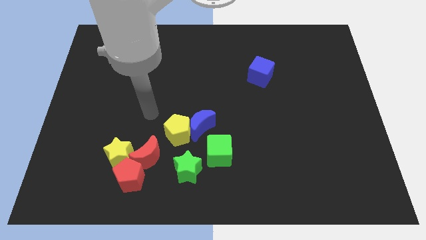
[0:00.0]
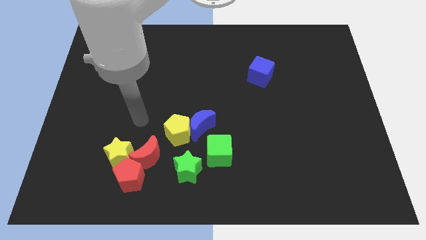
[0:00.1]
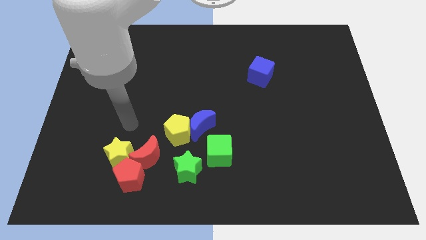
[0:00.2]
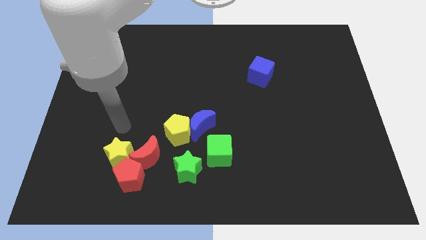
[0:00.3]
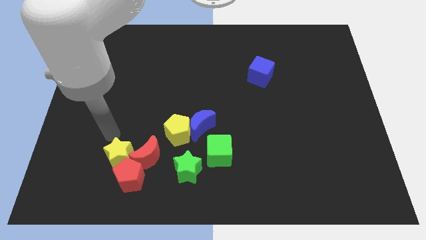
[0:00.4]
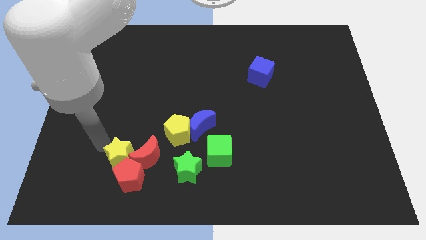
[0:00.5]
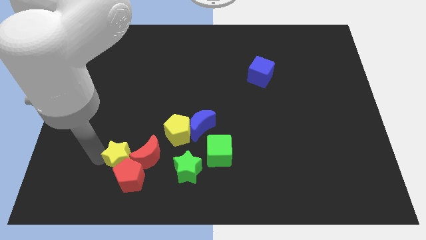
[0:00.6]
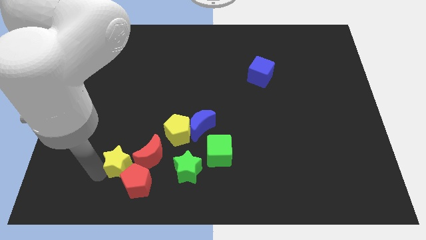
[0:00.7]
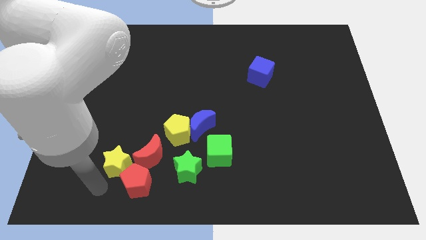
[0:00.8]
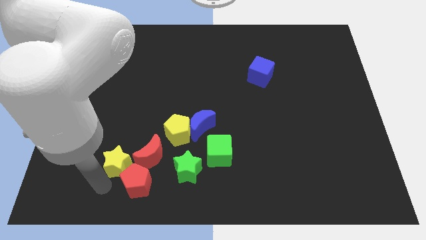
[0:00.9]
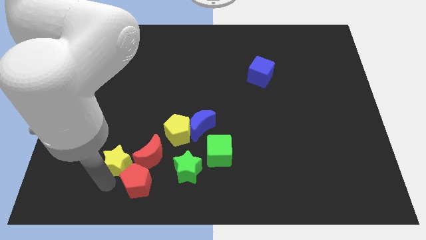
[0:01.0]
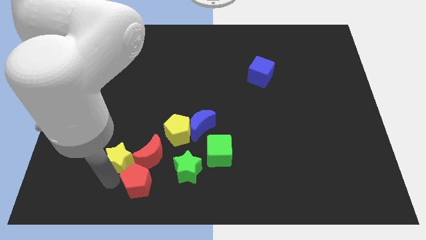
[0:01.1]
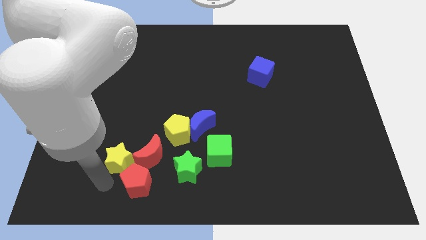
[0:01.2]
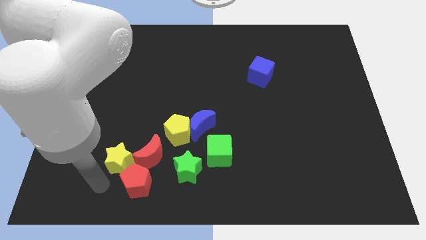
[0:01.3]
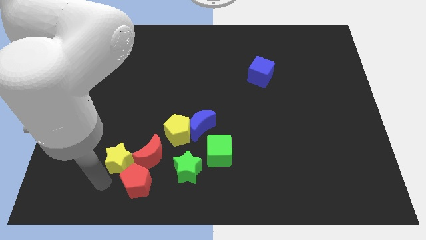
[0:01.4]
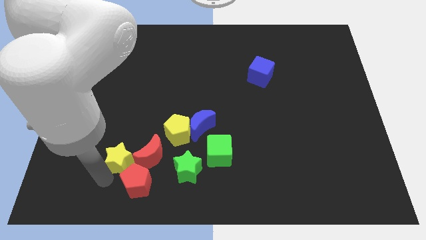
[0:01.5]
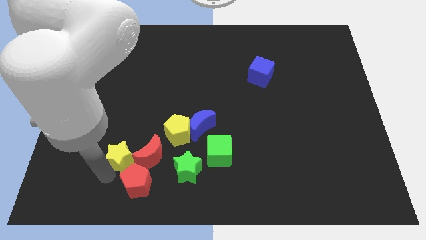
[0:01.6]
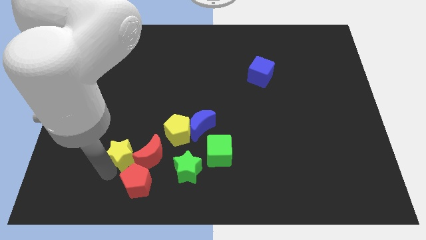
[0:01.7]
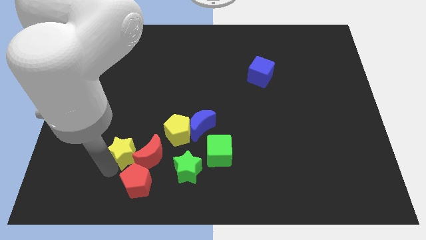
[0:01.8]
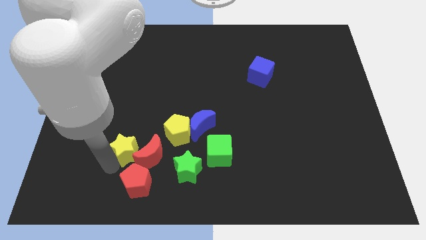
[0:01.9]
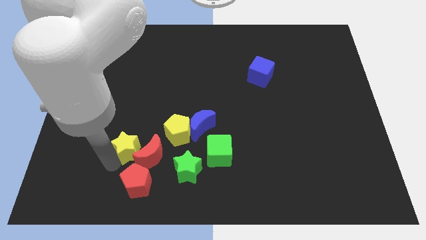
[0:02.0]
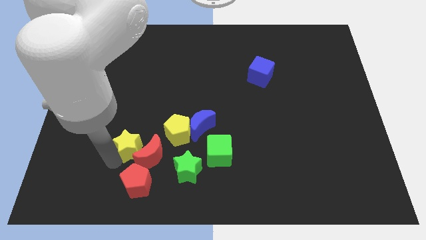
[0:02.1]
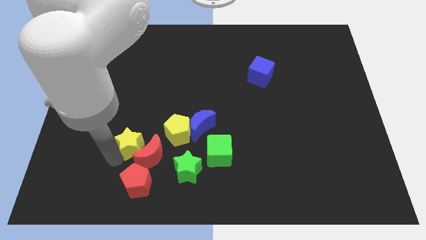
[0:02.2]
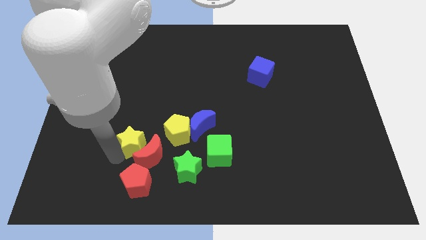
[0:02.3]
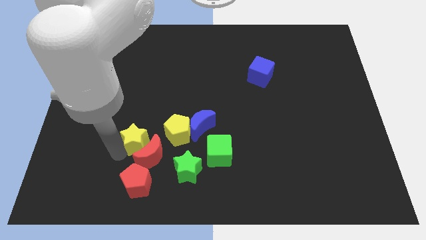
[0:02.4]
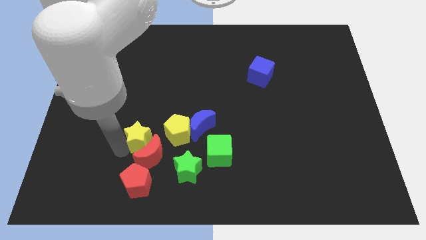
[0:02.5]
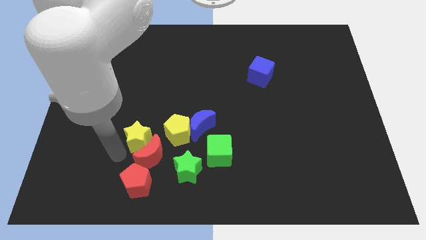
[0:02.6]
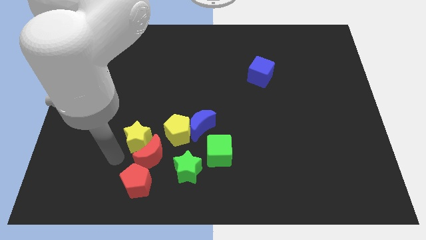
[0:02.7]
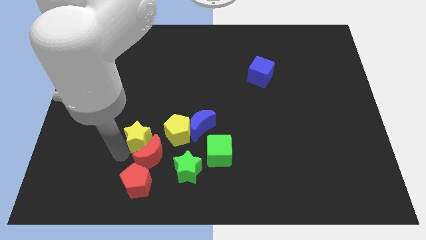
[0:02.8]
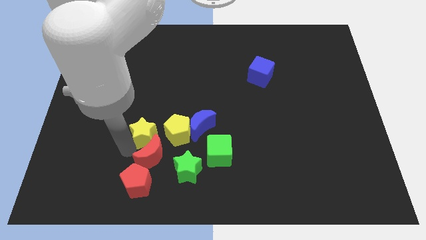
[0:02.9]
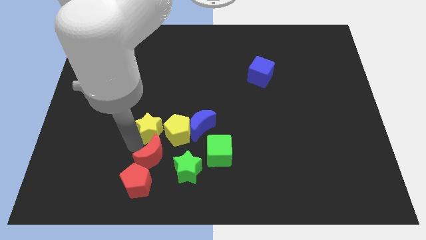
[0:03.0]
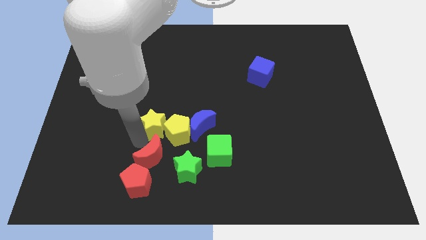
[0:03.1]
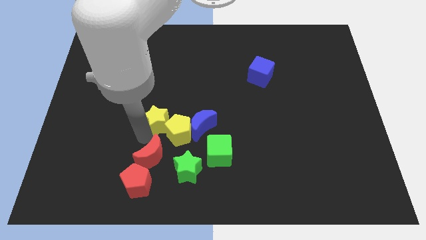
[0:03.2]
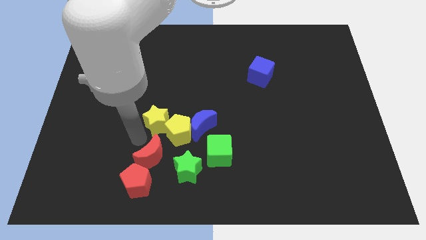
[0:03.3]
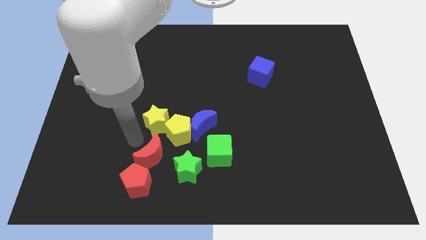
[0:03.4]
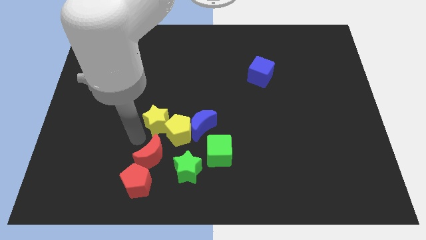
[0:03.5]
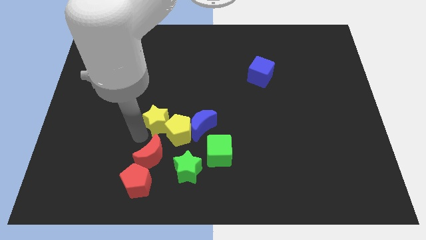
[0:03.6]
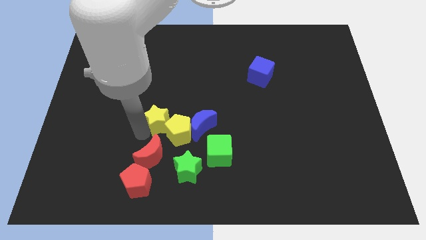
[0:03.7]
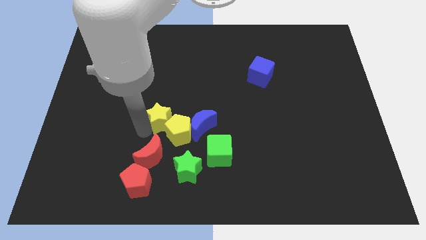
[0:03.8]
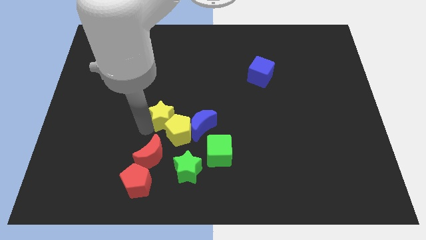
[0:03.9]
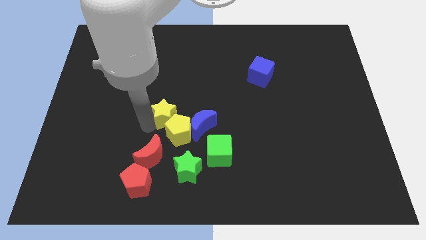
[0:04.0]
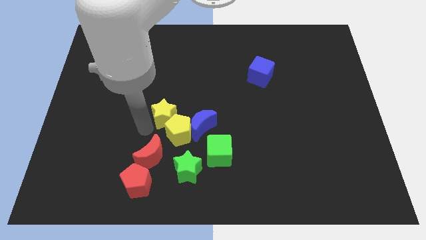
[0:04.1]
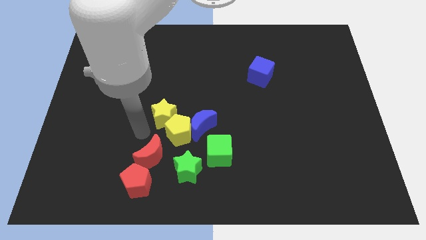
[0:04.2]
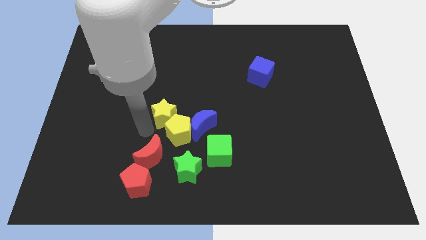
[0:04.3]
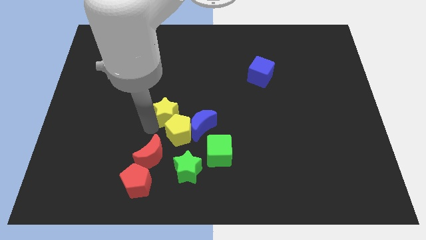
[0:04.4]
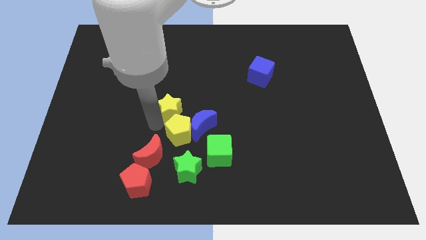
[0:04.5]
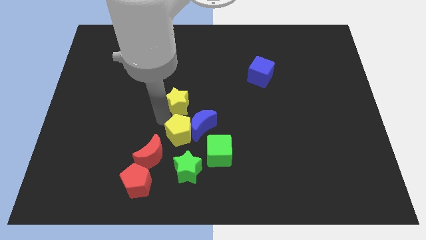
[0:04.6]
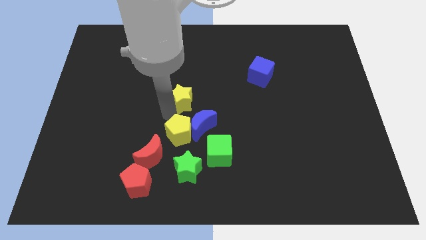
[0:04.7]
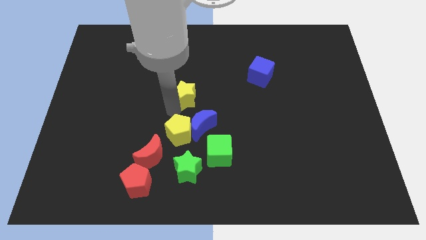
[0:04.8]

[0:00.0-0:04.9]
move the yellow star up and right diagonally

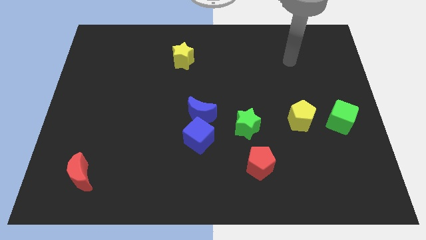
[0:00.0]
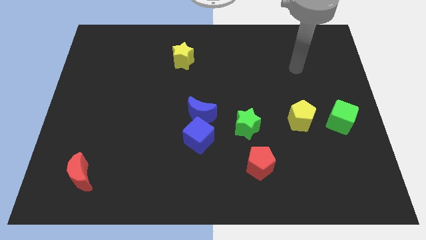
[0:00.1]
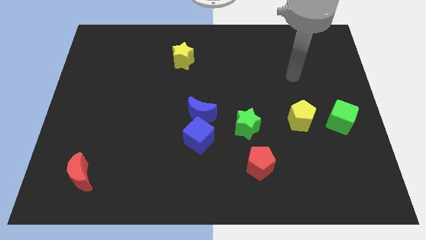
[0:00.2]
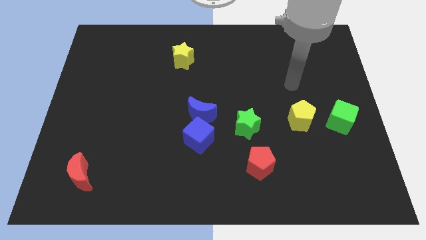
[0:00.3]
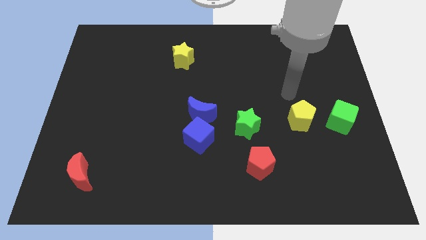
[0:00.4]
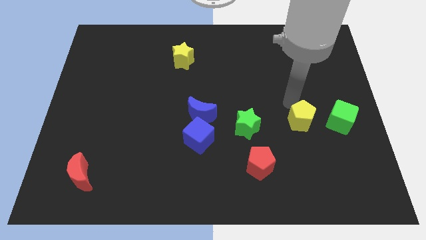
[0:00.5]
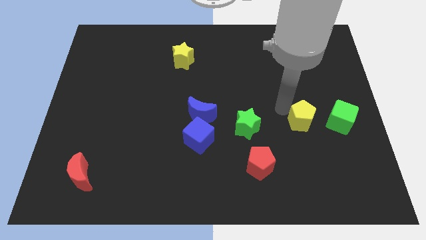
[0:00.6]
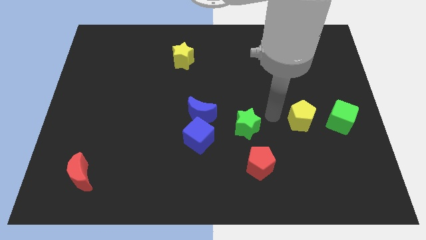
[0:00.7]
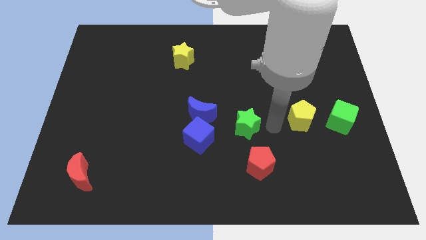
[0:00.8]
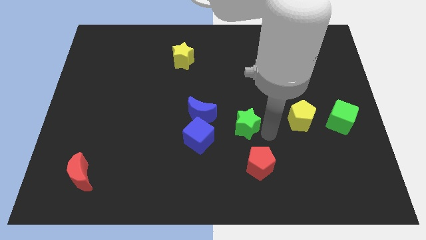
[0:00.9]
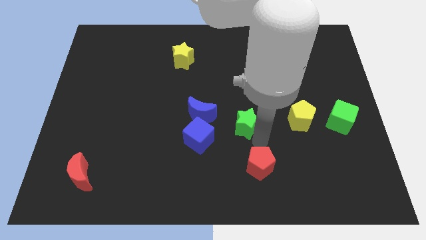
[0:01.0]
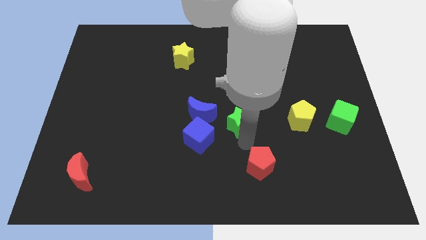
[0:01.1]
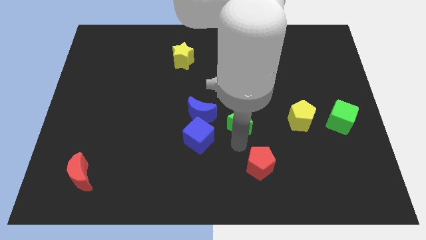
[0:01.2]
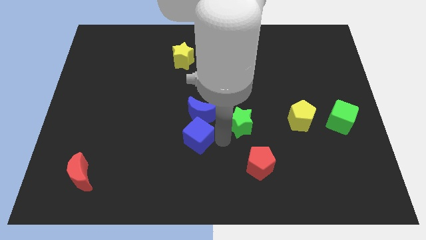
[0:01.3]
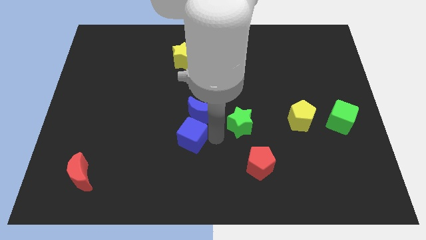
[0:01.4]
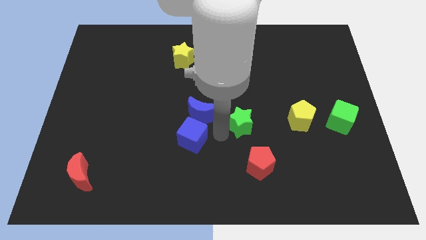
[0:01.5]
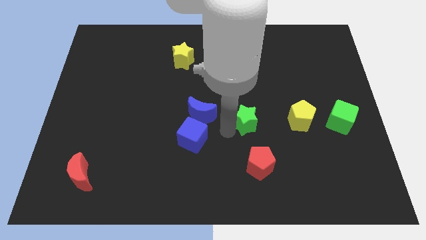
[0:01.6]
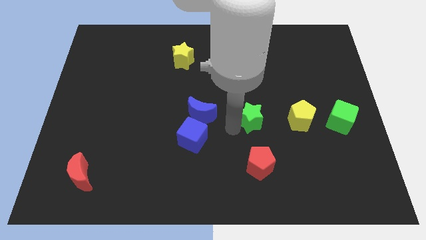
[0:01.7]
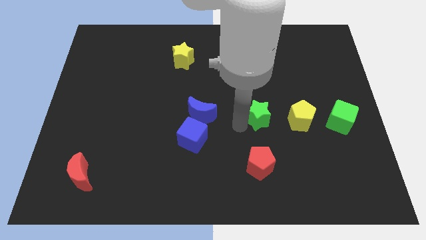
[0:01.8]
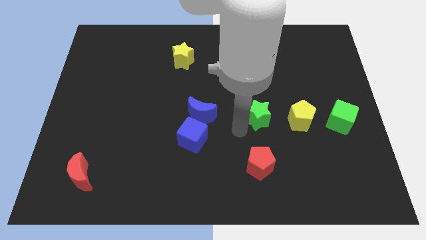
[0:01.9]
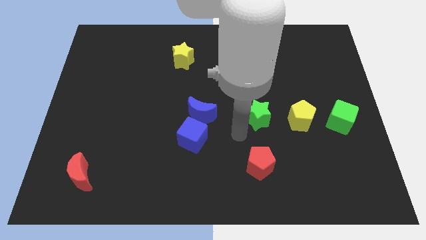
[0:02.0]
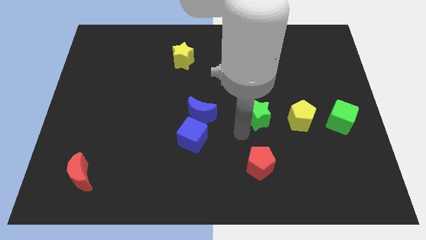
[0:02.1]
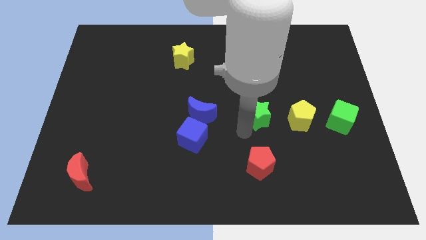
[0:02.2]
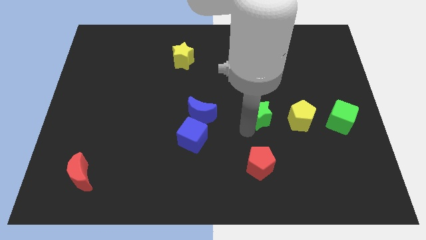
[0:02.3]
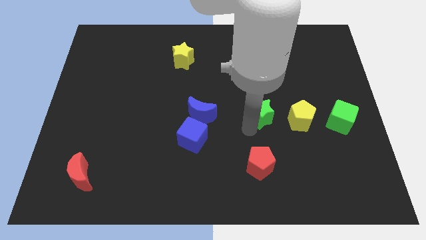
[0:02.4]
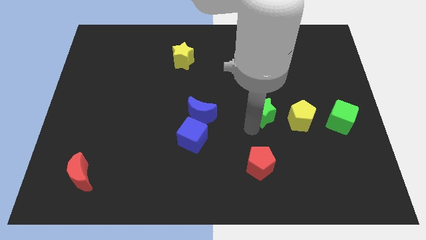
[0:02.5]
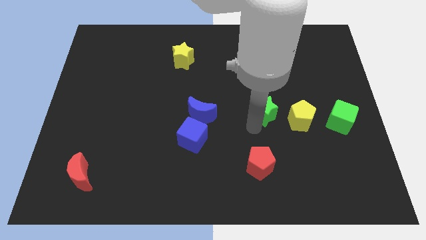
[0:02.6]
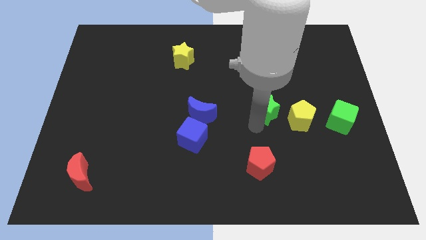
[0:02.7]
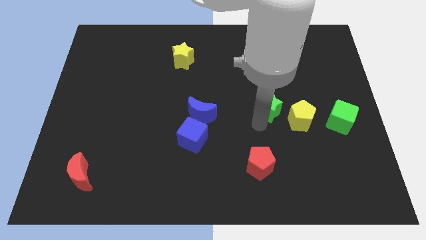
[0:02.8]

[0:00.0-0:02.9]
slightly move the green star upwards and right diagonally

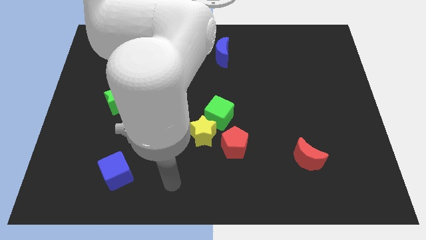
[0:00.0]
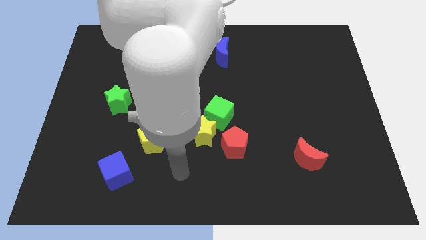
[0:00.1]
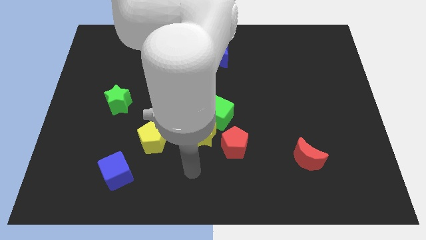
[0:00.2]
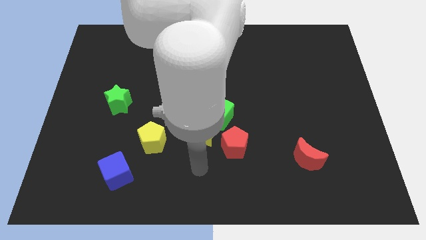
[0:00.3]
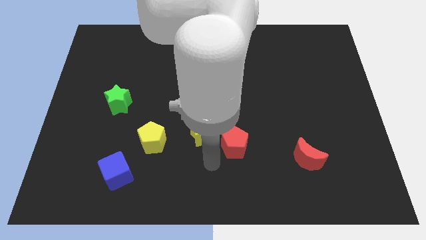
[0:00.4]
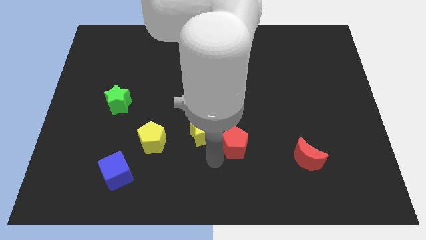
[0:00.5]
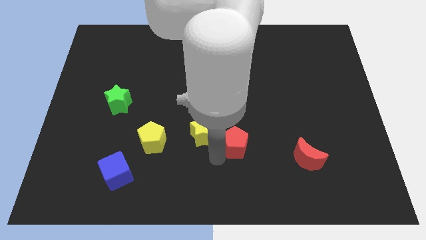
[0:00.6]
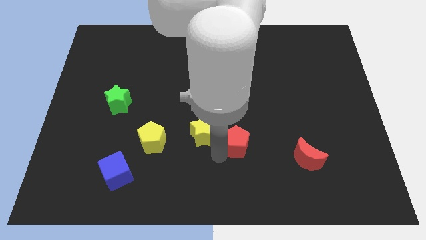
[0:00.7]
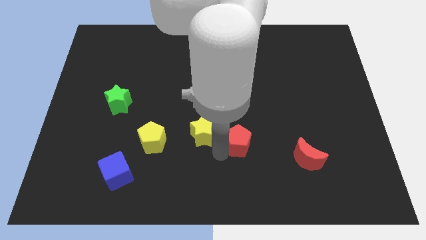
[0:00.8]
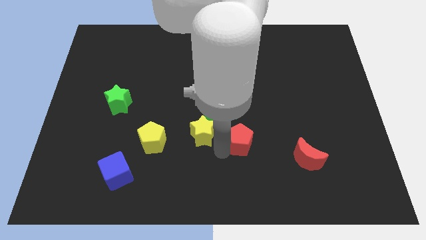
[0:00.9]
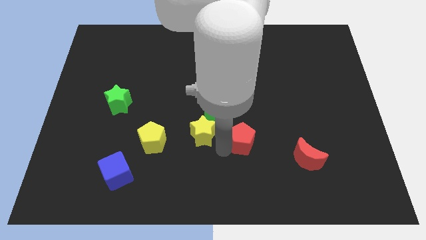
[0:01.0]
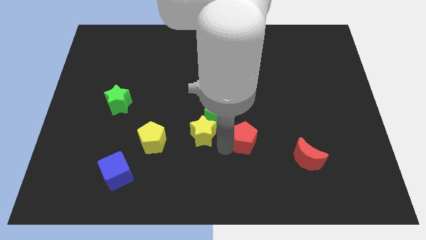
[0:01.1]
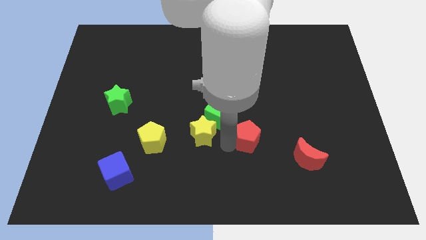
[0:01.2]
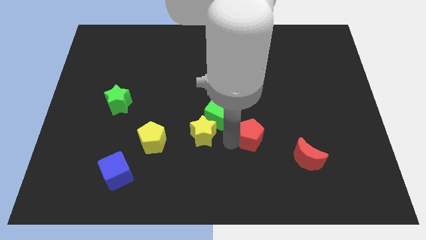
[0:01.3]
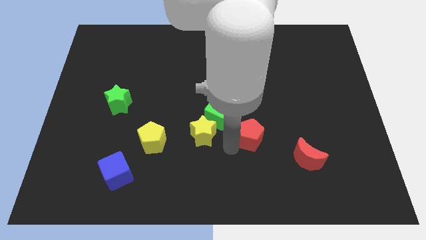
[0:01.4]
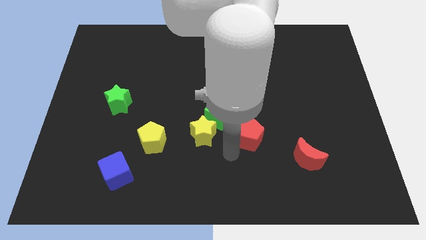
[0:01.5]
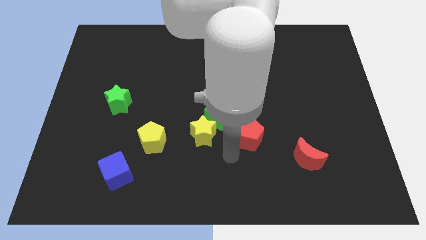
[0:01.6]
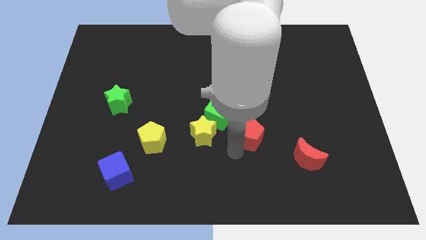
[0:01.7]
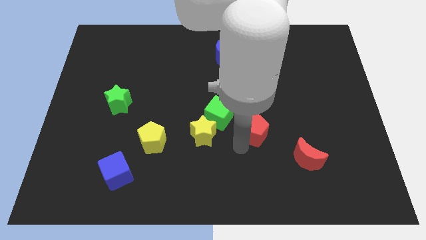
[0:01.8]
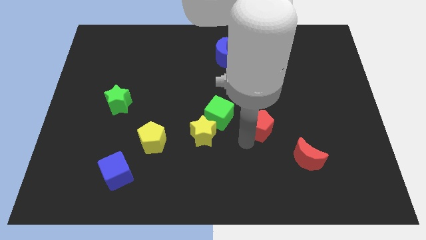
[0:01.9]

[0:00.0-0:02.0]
move the red pentagon diagonally up and right somewhat
